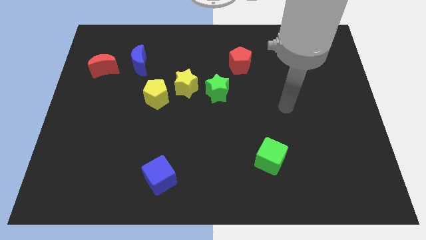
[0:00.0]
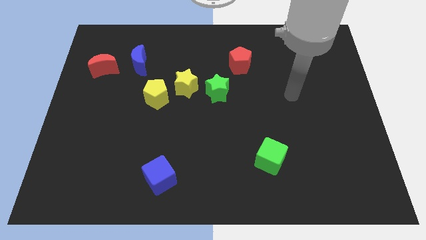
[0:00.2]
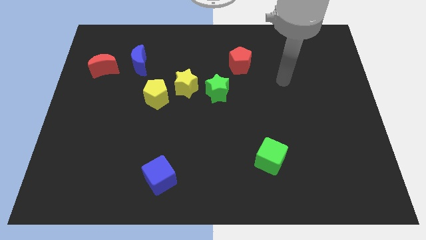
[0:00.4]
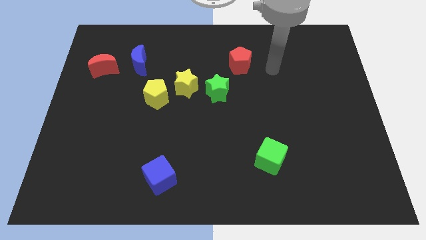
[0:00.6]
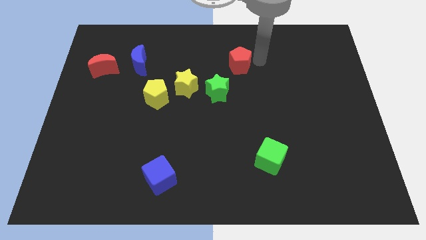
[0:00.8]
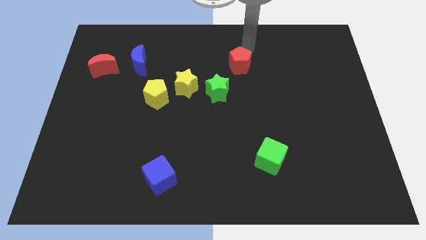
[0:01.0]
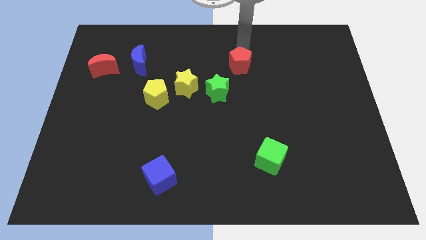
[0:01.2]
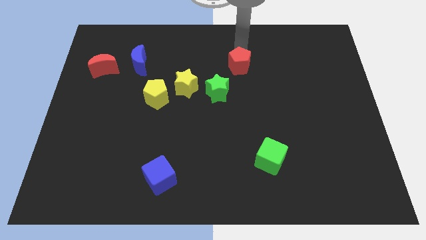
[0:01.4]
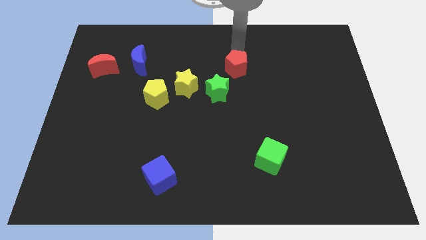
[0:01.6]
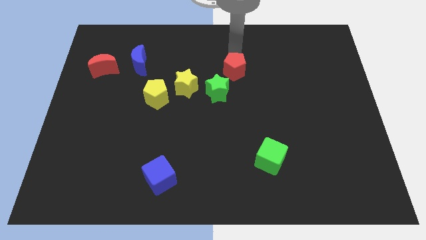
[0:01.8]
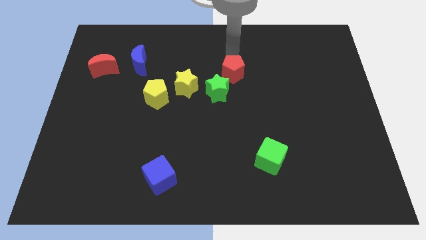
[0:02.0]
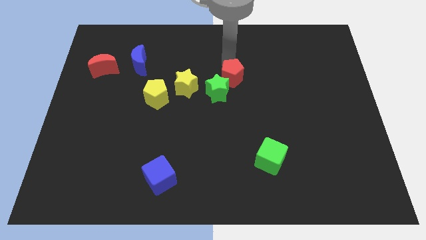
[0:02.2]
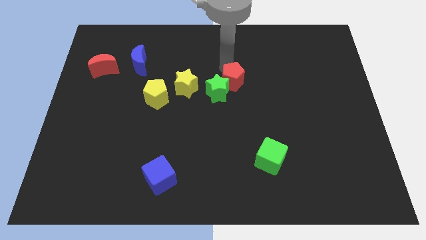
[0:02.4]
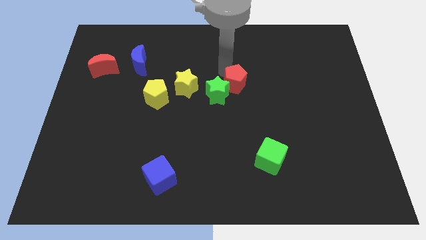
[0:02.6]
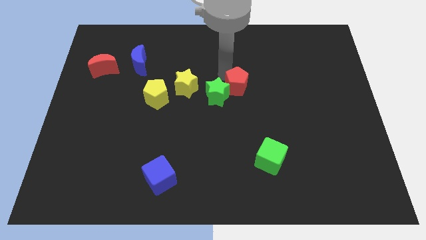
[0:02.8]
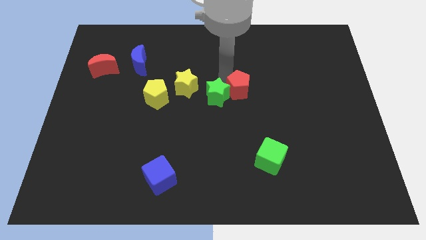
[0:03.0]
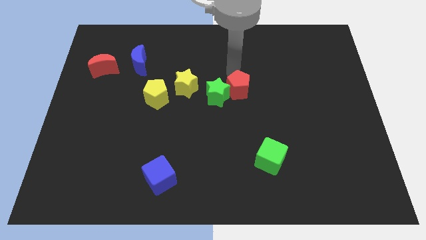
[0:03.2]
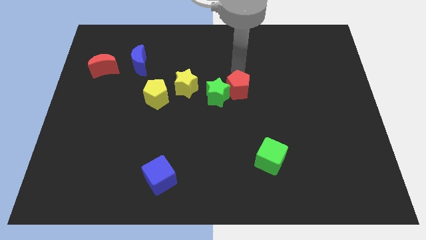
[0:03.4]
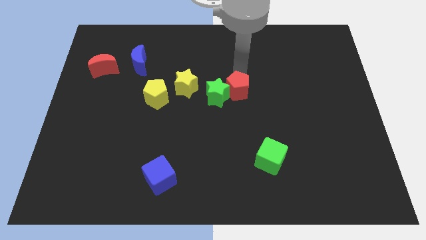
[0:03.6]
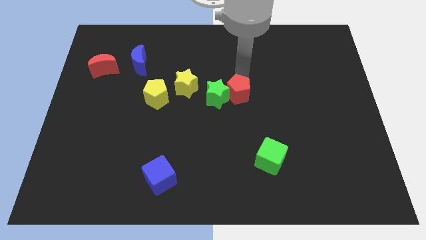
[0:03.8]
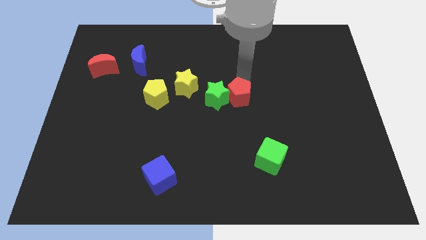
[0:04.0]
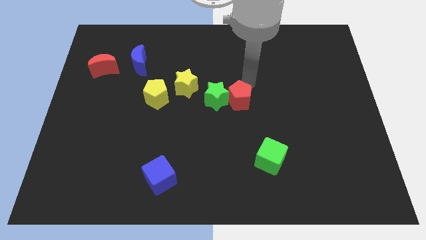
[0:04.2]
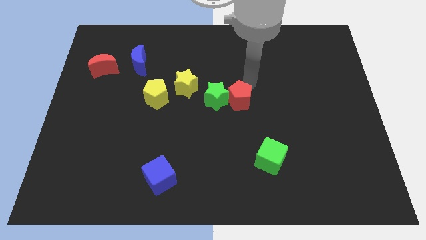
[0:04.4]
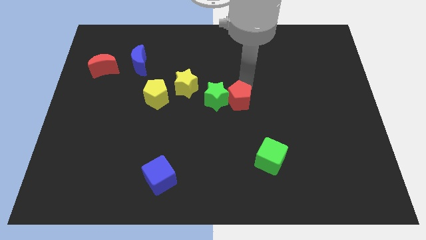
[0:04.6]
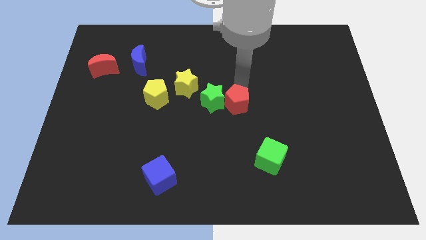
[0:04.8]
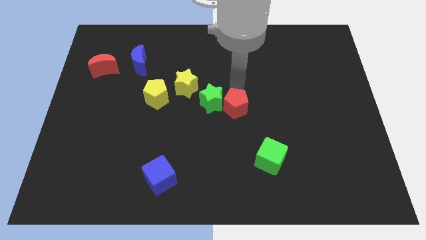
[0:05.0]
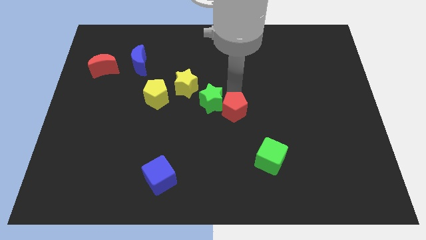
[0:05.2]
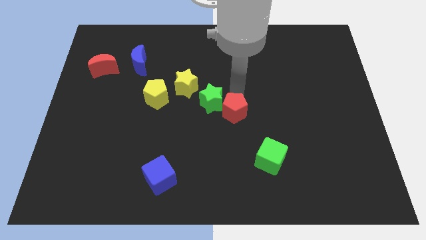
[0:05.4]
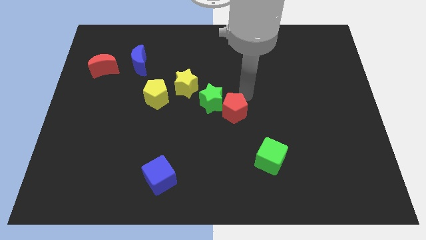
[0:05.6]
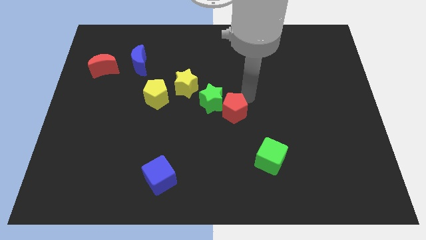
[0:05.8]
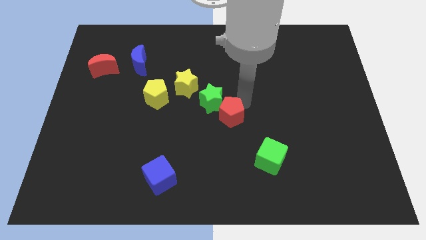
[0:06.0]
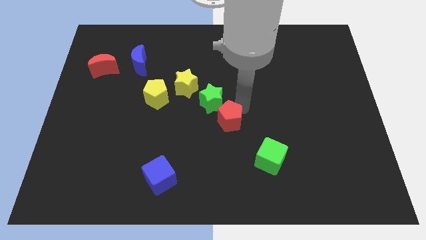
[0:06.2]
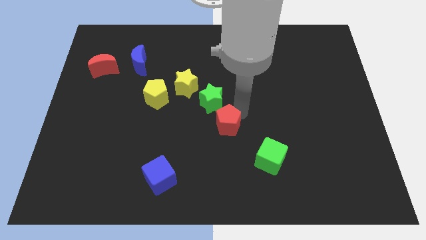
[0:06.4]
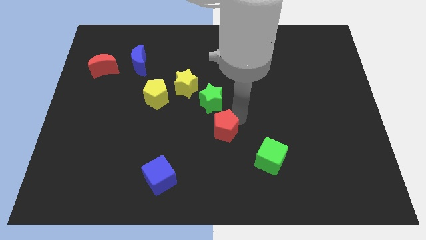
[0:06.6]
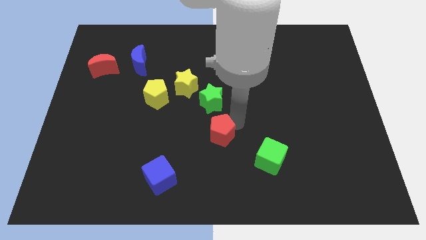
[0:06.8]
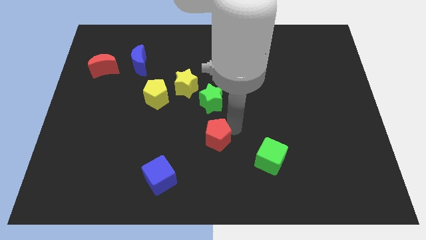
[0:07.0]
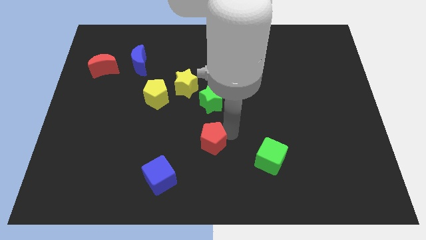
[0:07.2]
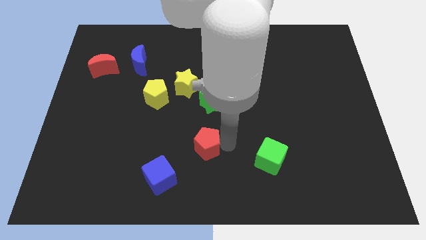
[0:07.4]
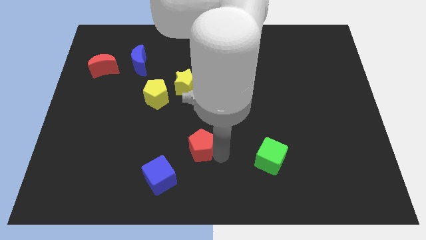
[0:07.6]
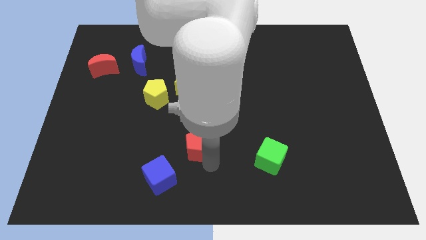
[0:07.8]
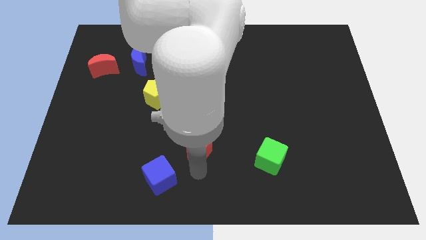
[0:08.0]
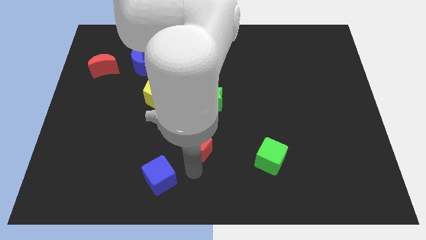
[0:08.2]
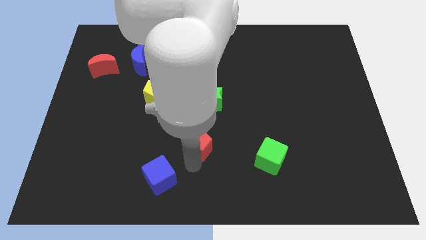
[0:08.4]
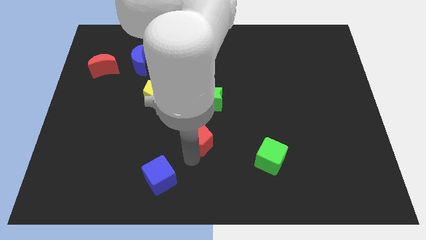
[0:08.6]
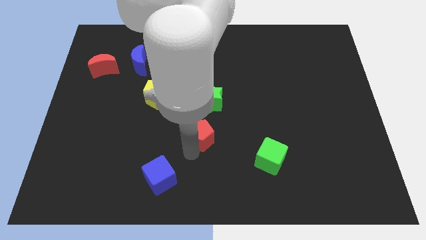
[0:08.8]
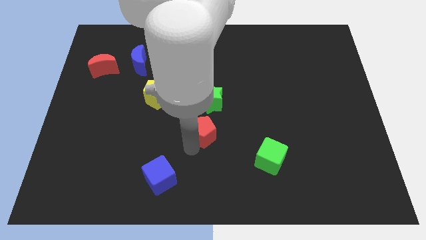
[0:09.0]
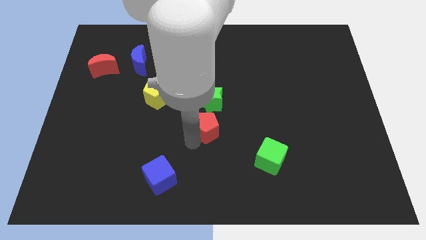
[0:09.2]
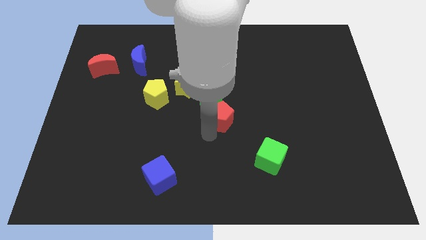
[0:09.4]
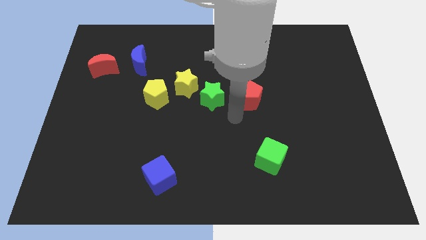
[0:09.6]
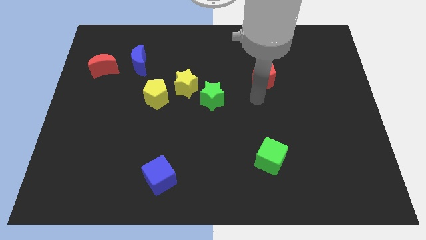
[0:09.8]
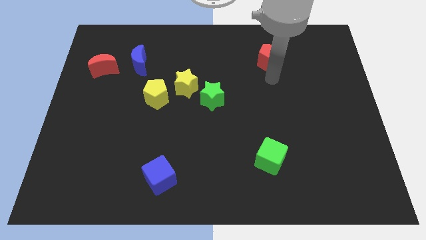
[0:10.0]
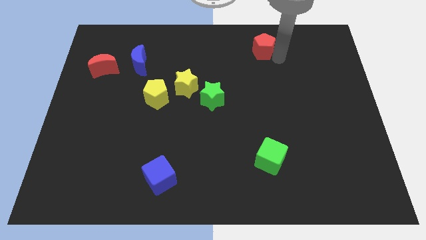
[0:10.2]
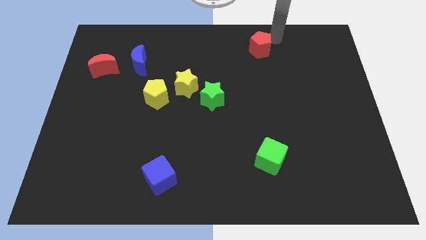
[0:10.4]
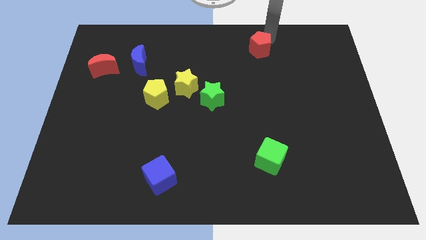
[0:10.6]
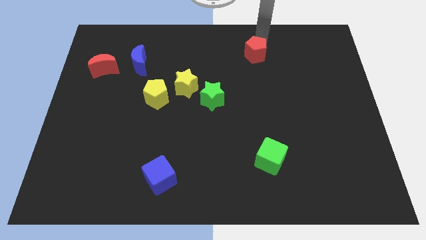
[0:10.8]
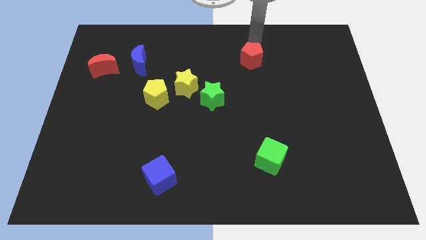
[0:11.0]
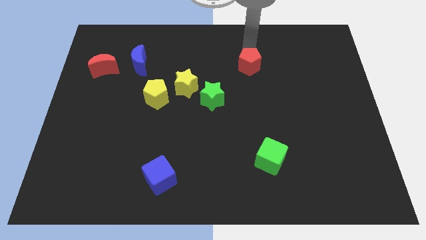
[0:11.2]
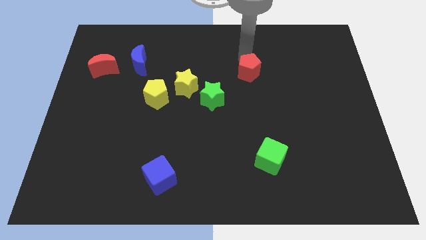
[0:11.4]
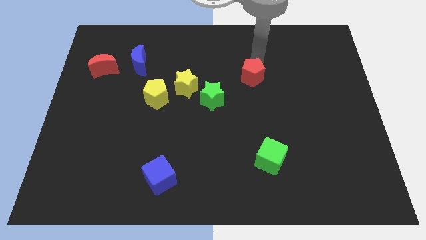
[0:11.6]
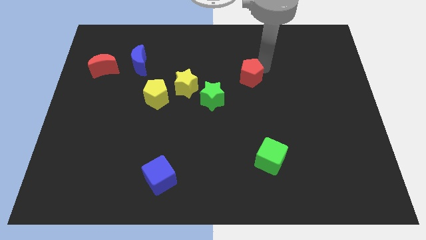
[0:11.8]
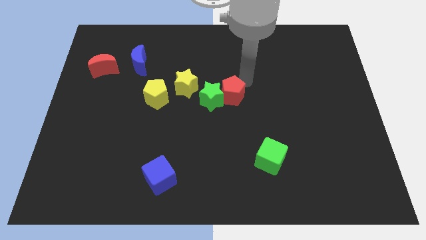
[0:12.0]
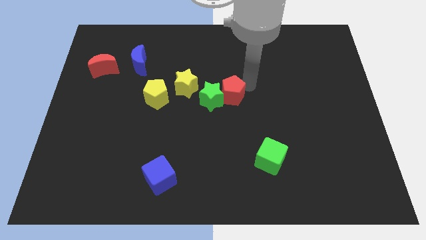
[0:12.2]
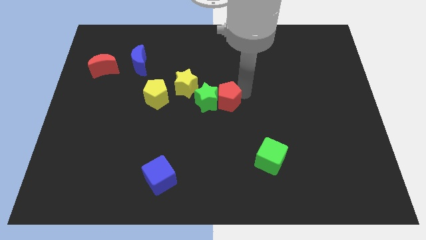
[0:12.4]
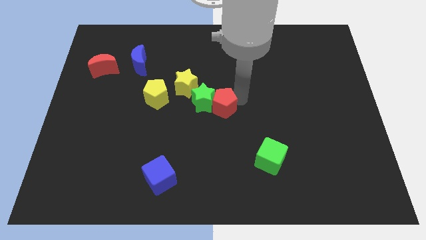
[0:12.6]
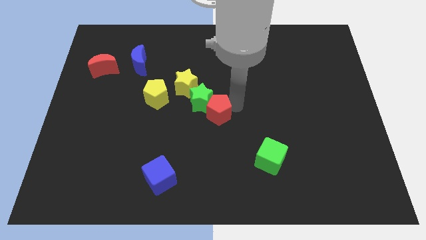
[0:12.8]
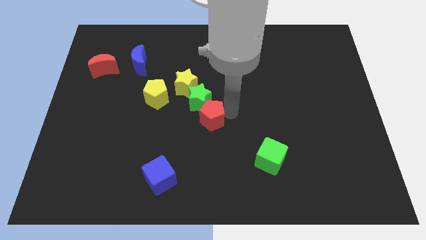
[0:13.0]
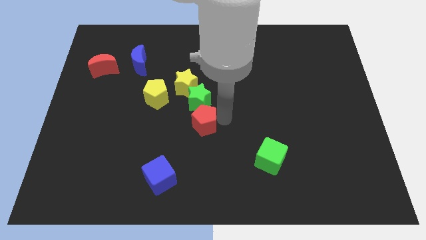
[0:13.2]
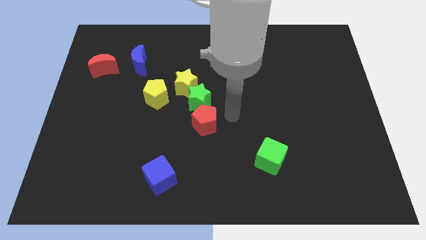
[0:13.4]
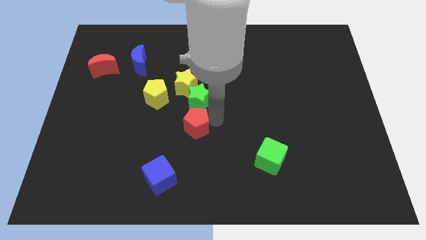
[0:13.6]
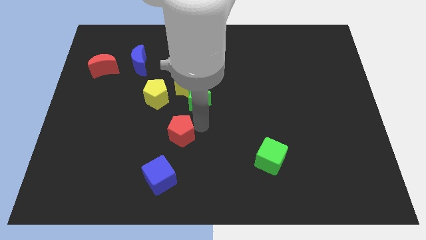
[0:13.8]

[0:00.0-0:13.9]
push the red pentagon to the top side of the blue cube
